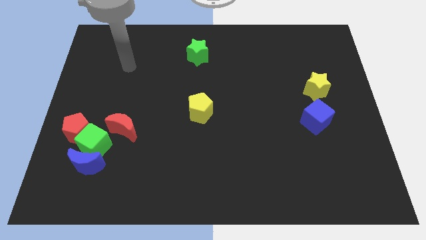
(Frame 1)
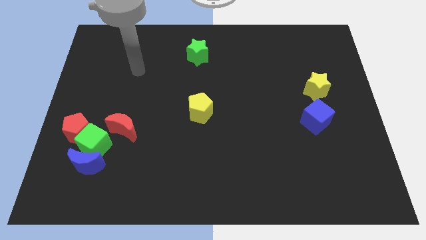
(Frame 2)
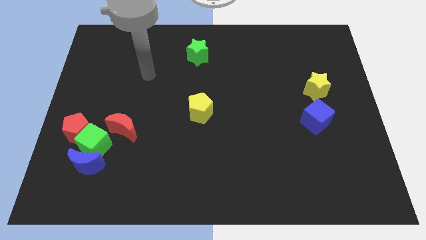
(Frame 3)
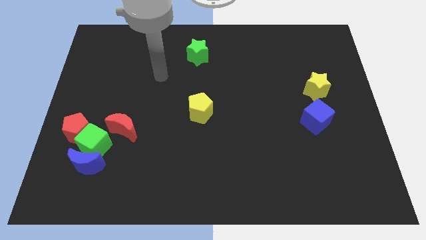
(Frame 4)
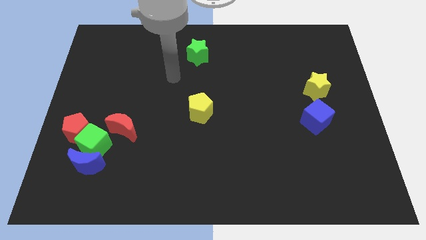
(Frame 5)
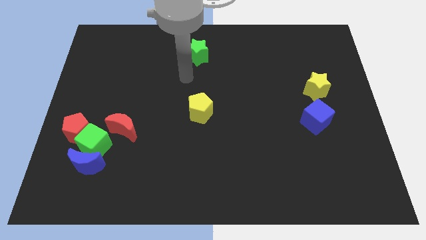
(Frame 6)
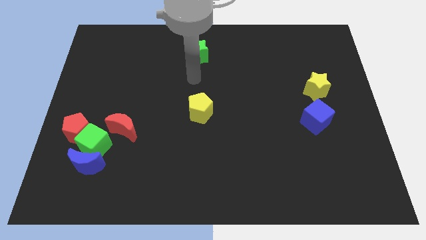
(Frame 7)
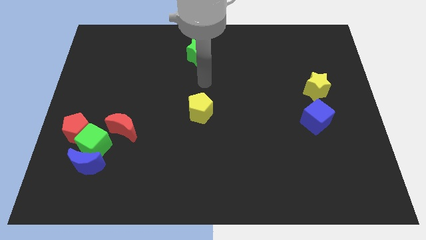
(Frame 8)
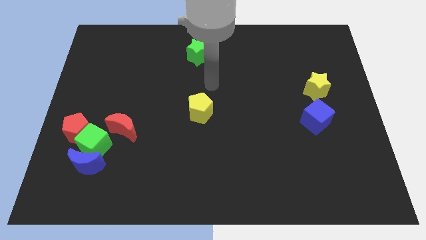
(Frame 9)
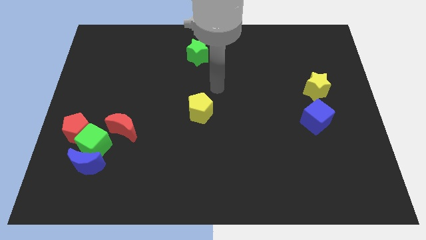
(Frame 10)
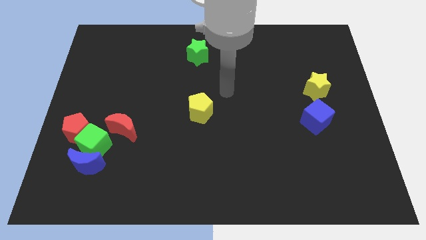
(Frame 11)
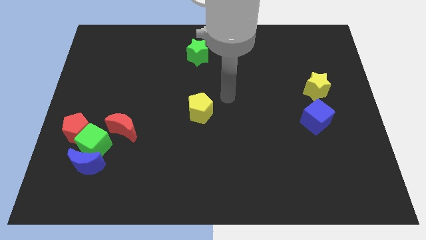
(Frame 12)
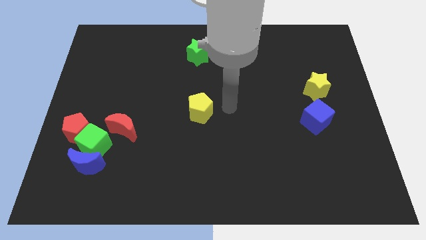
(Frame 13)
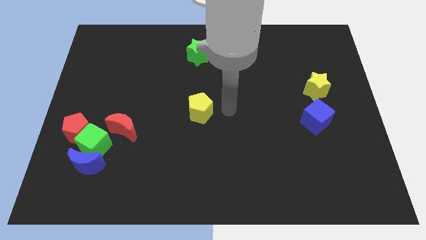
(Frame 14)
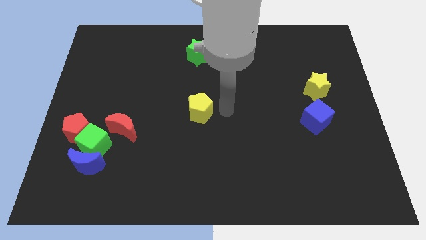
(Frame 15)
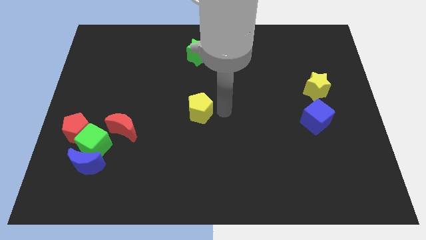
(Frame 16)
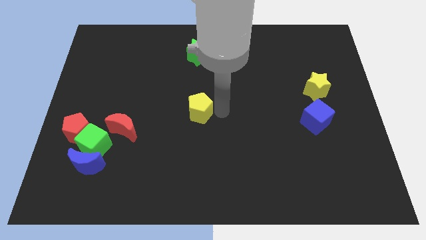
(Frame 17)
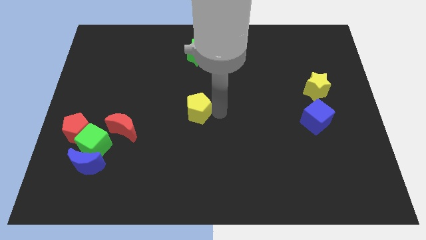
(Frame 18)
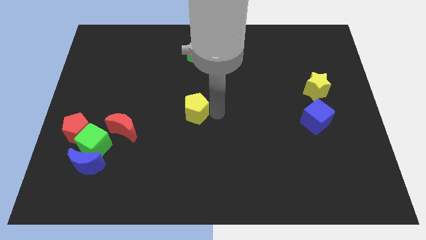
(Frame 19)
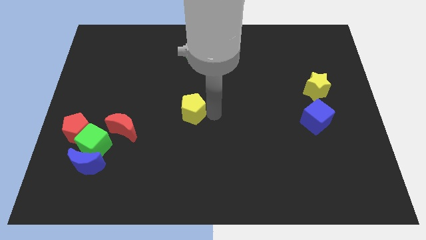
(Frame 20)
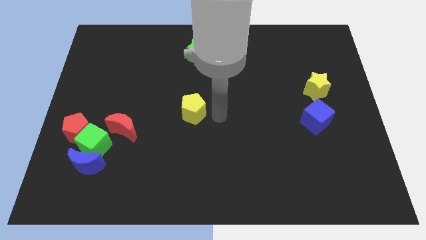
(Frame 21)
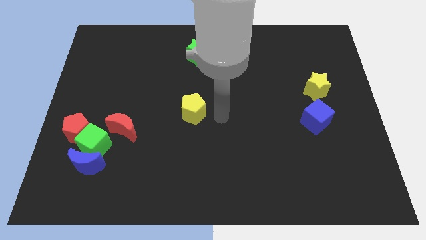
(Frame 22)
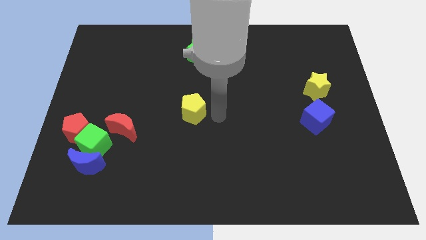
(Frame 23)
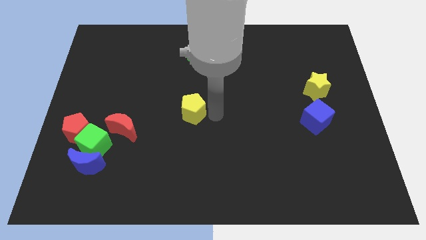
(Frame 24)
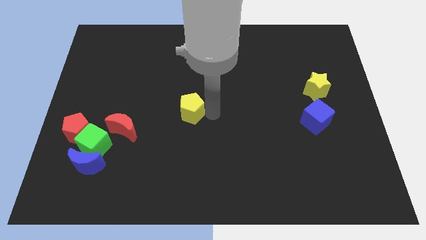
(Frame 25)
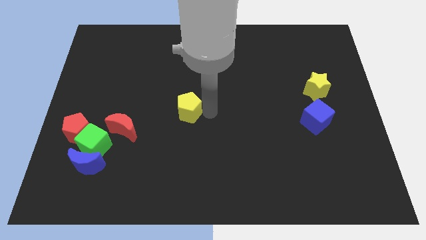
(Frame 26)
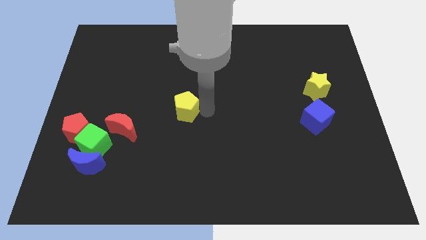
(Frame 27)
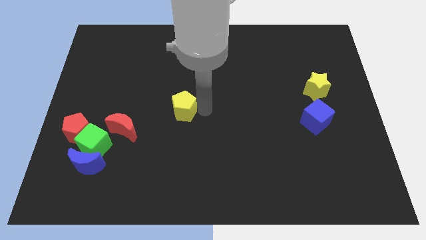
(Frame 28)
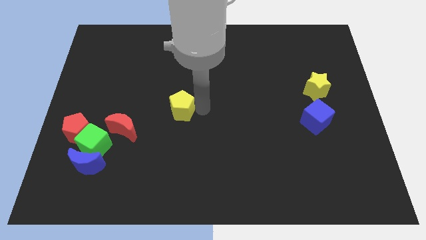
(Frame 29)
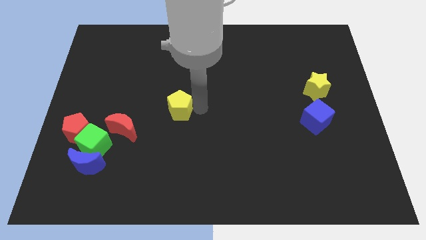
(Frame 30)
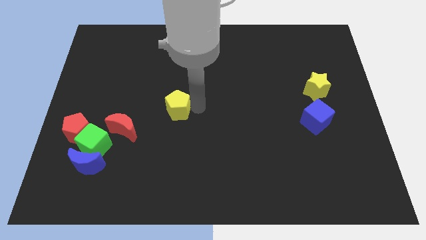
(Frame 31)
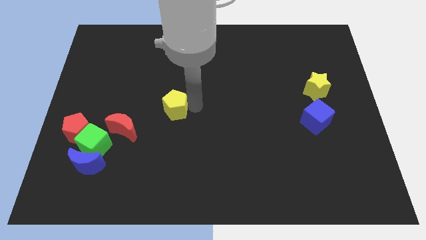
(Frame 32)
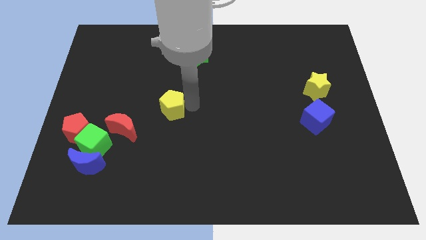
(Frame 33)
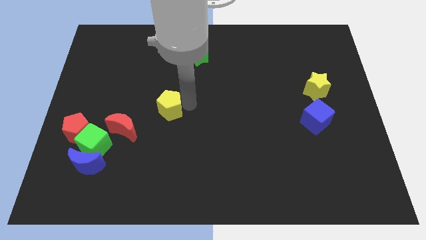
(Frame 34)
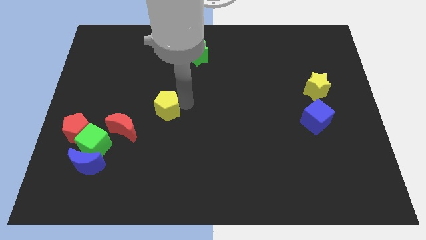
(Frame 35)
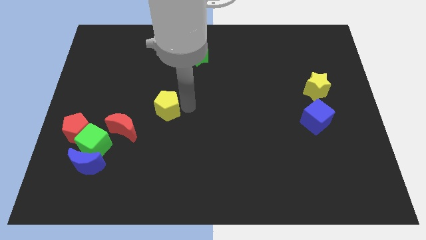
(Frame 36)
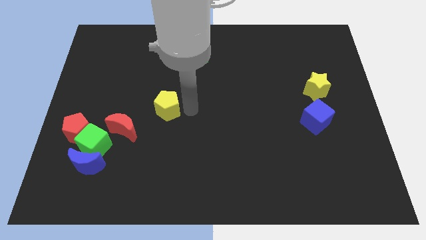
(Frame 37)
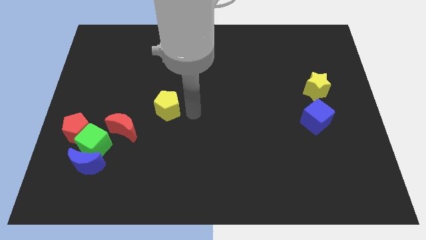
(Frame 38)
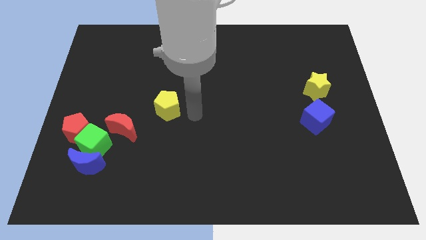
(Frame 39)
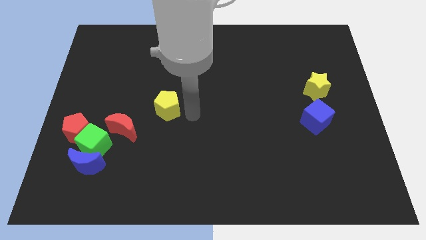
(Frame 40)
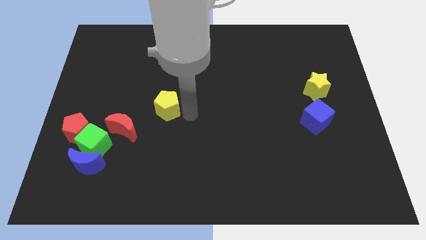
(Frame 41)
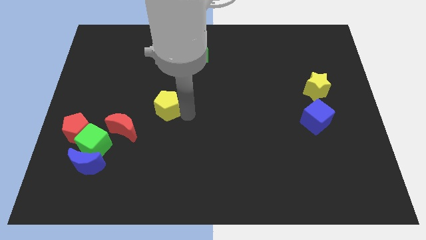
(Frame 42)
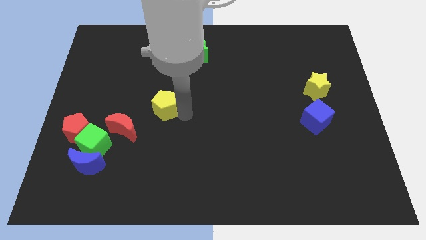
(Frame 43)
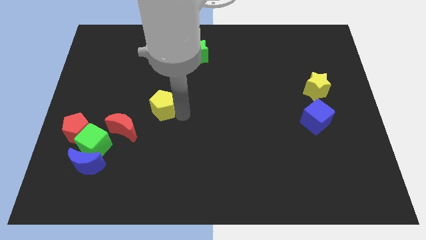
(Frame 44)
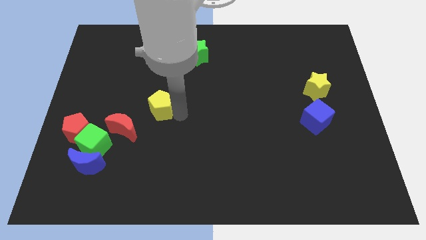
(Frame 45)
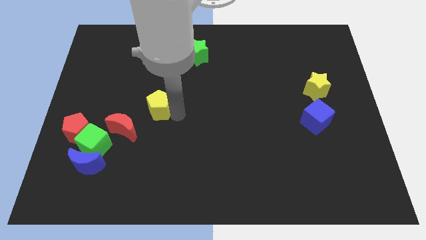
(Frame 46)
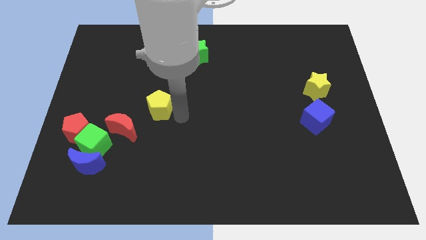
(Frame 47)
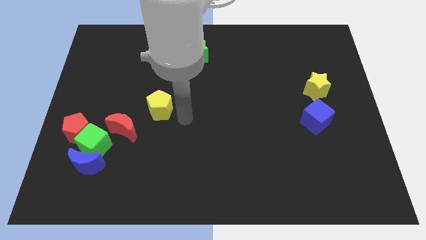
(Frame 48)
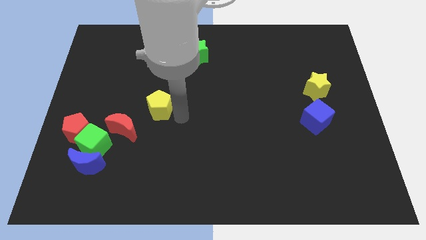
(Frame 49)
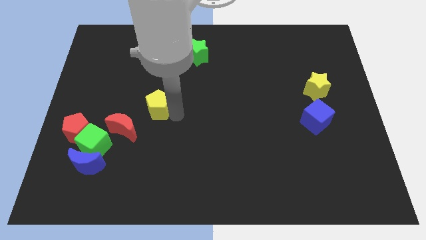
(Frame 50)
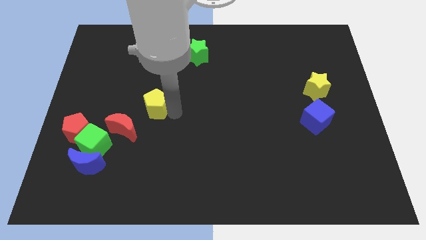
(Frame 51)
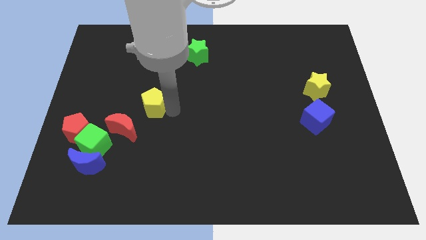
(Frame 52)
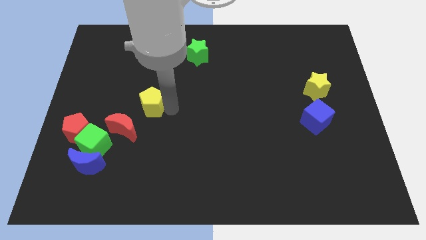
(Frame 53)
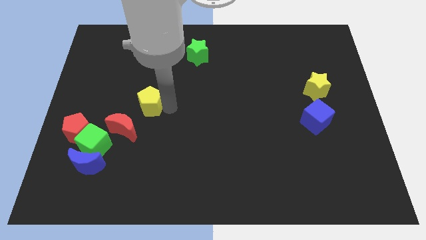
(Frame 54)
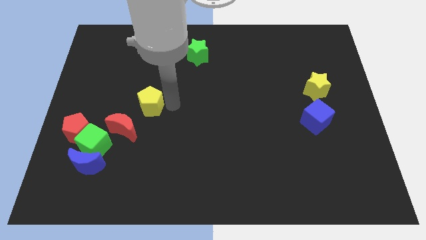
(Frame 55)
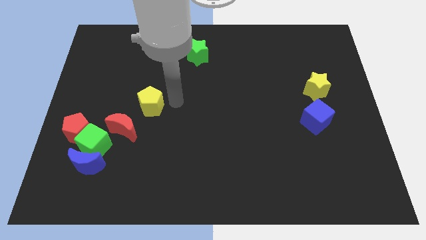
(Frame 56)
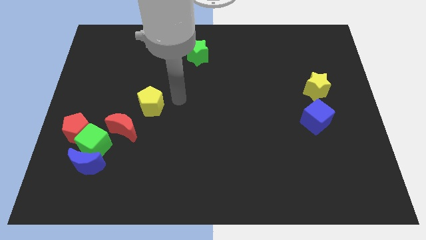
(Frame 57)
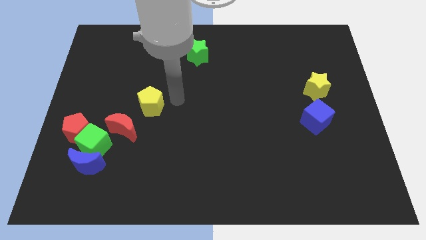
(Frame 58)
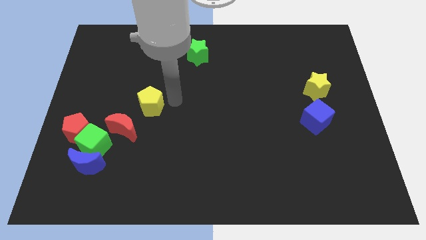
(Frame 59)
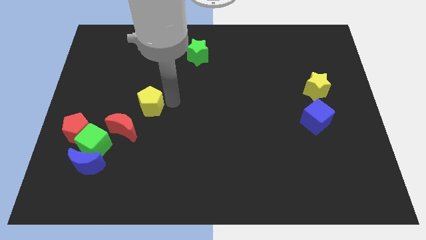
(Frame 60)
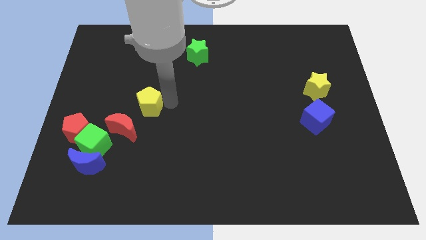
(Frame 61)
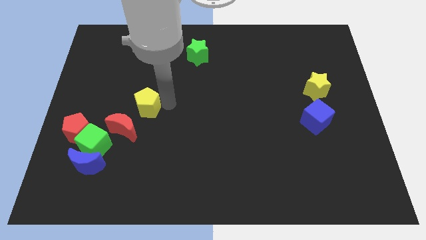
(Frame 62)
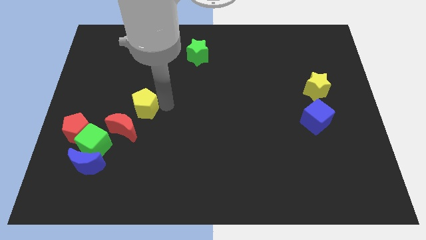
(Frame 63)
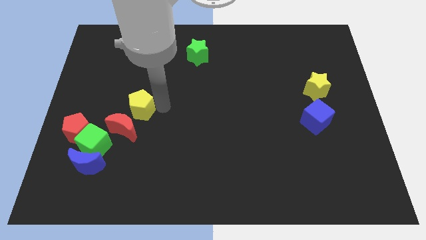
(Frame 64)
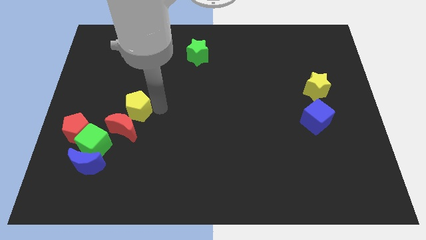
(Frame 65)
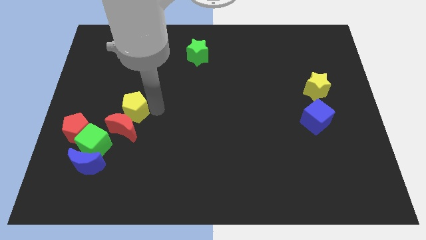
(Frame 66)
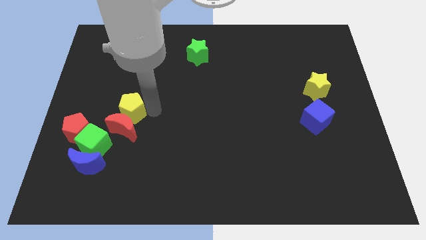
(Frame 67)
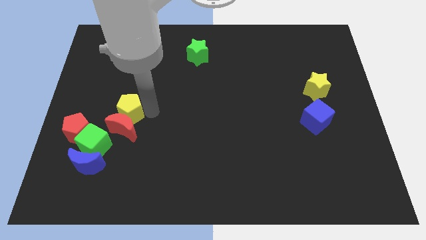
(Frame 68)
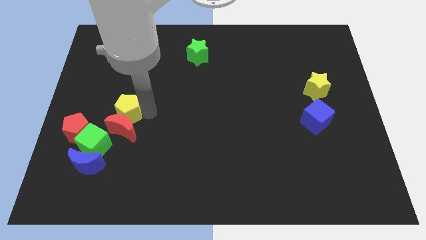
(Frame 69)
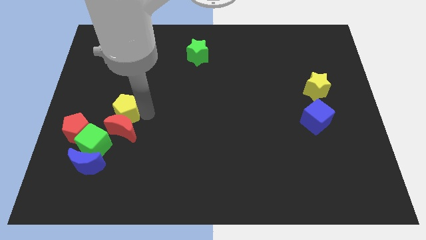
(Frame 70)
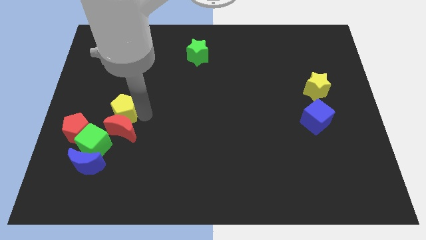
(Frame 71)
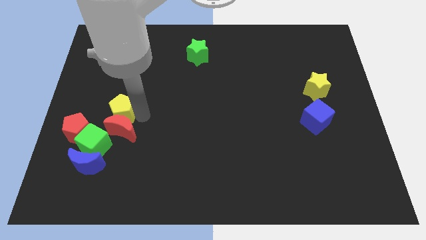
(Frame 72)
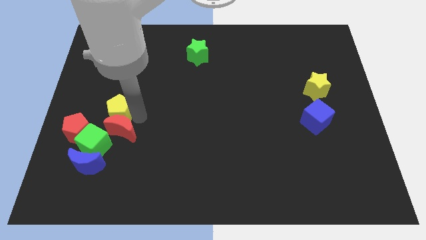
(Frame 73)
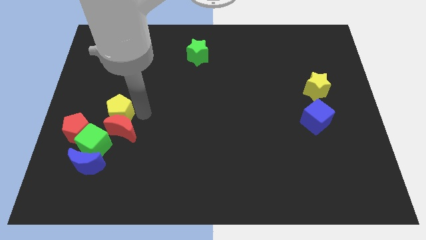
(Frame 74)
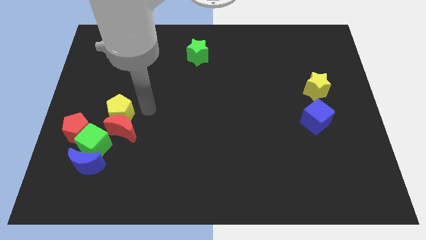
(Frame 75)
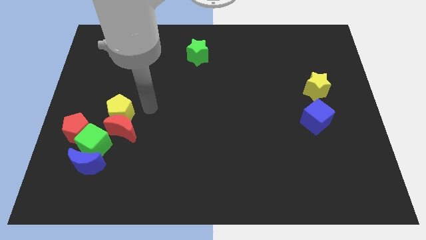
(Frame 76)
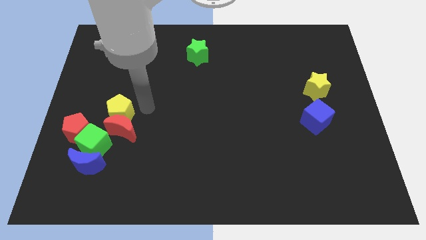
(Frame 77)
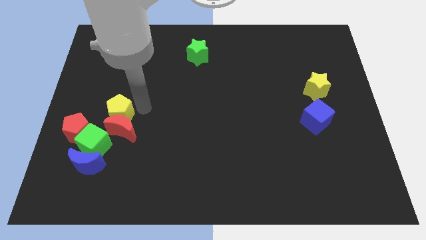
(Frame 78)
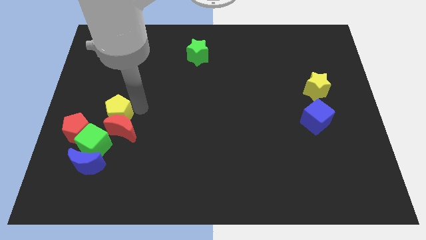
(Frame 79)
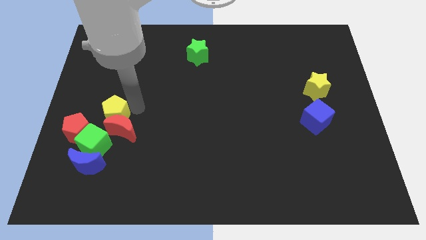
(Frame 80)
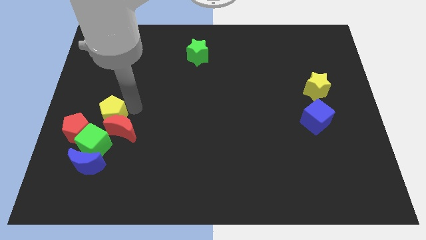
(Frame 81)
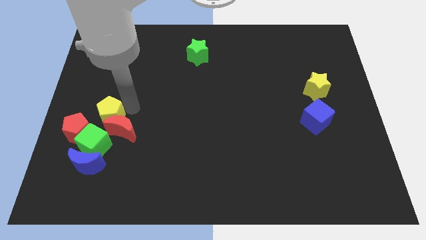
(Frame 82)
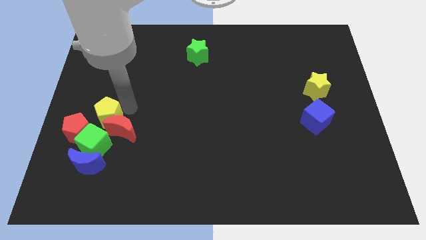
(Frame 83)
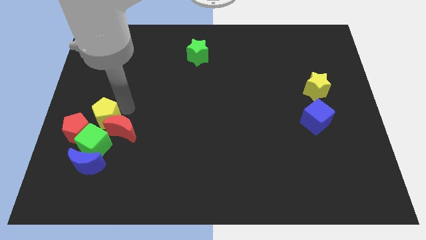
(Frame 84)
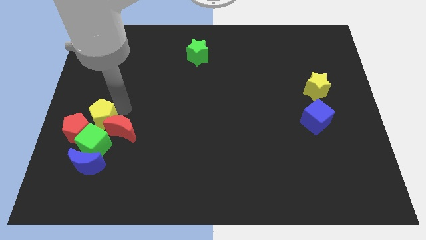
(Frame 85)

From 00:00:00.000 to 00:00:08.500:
slide the yellow pentagon to the red pentagon
